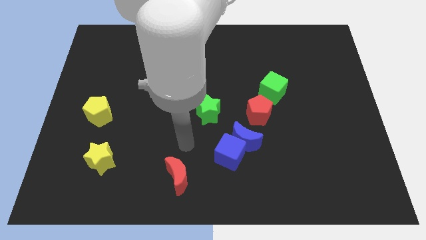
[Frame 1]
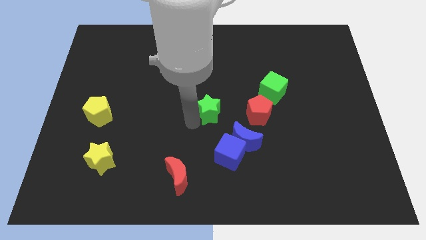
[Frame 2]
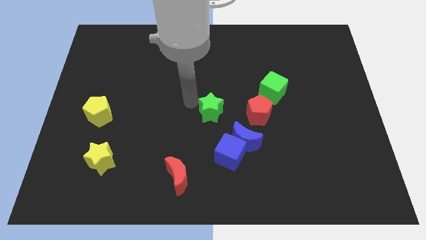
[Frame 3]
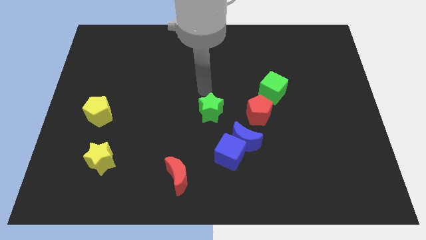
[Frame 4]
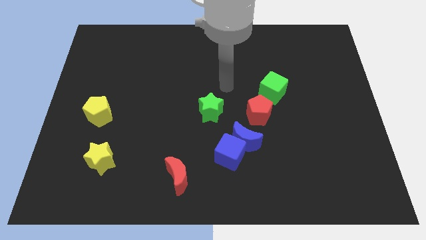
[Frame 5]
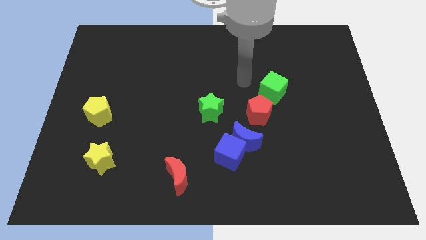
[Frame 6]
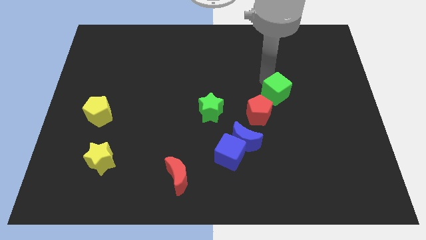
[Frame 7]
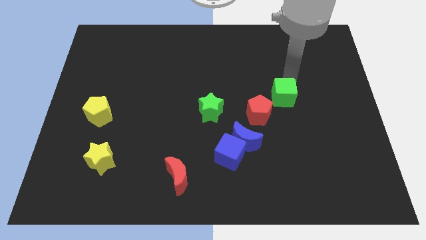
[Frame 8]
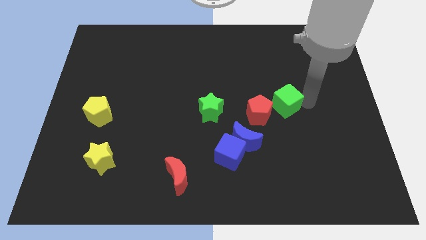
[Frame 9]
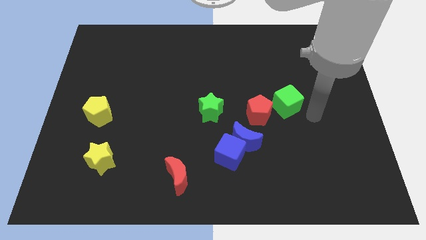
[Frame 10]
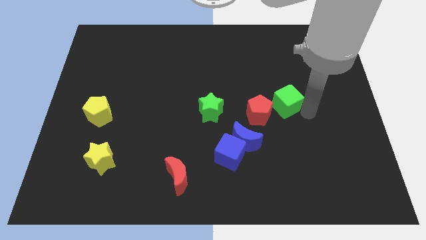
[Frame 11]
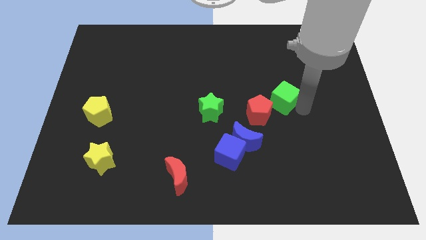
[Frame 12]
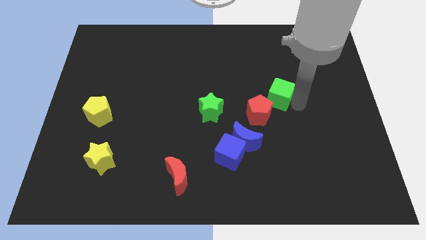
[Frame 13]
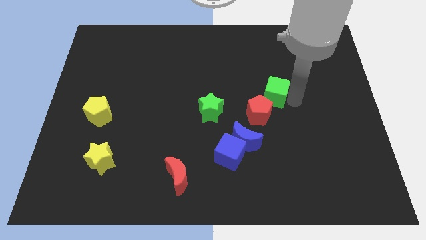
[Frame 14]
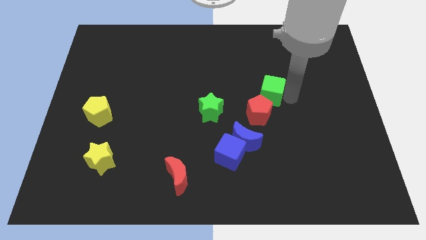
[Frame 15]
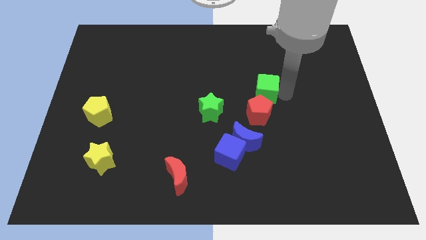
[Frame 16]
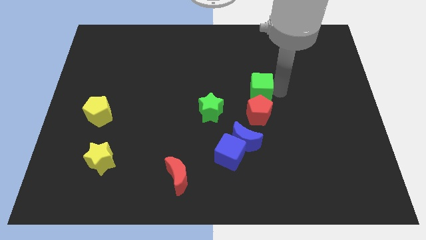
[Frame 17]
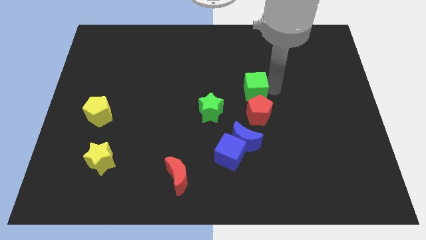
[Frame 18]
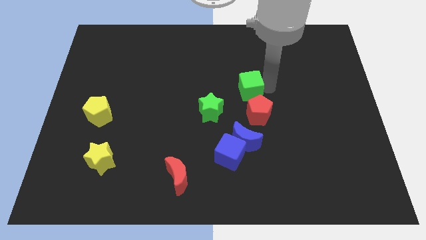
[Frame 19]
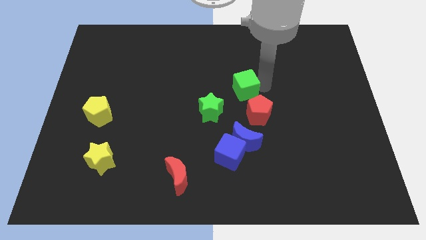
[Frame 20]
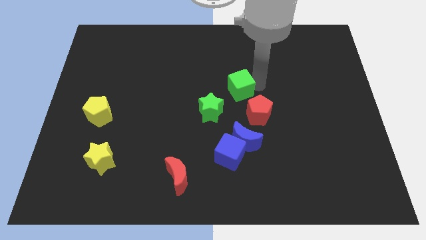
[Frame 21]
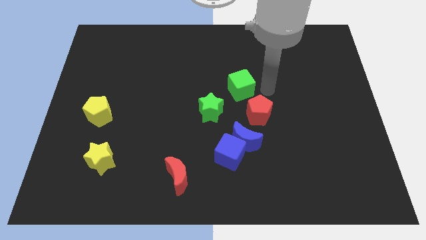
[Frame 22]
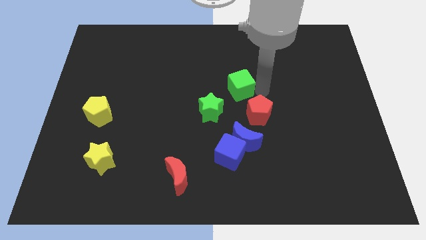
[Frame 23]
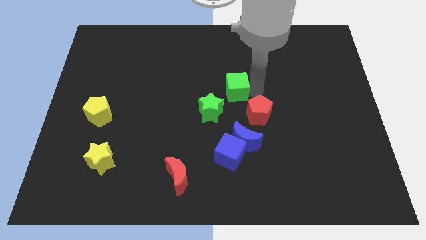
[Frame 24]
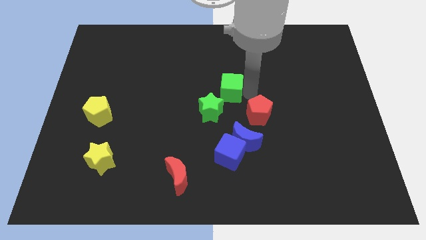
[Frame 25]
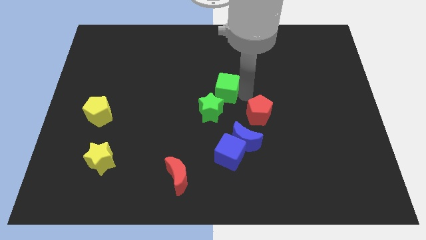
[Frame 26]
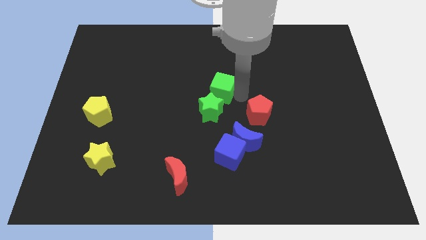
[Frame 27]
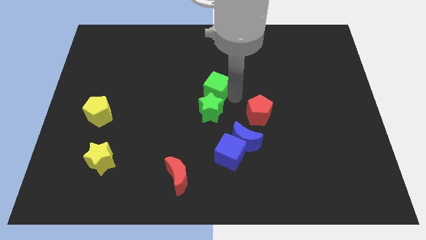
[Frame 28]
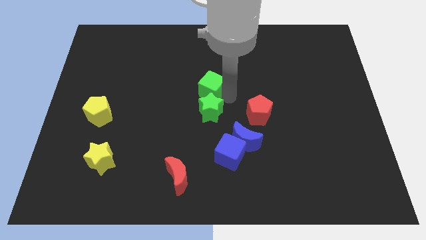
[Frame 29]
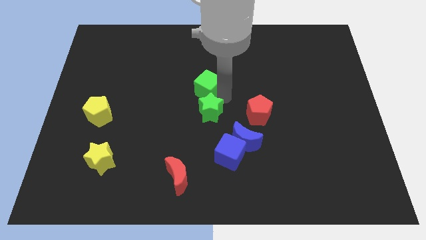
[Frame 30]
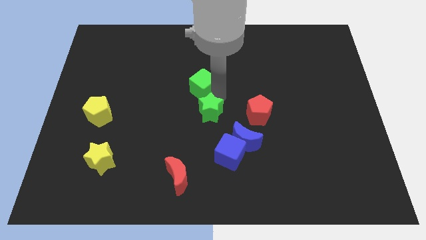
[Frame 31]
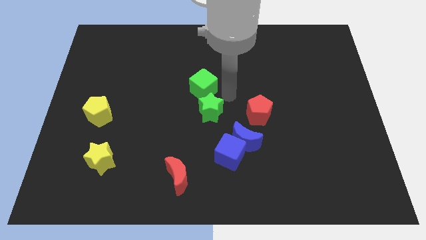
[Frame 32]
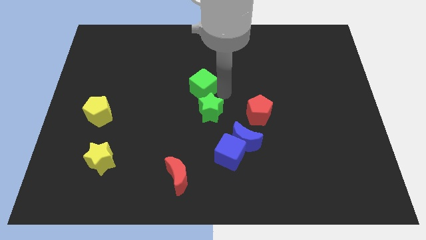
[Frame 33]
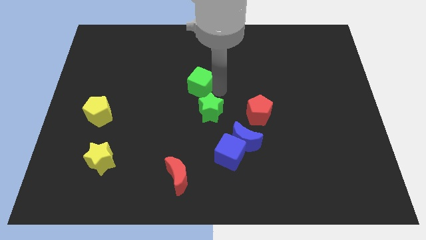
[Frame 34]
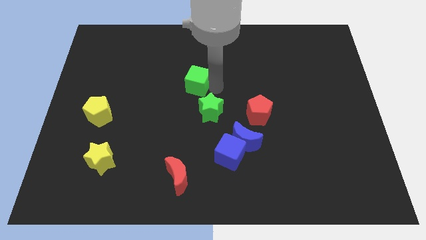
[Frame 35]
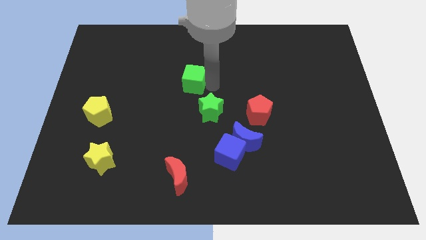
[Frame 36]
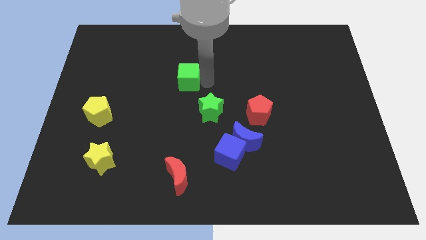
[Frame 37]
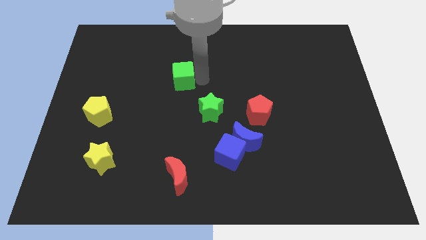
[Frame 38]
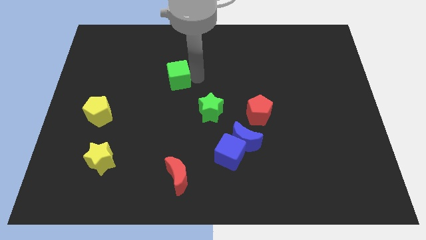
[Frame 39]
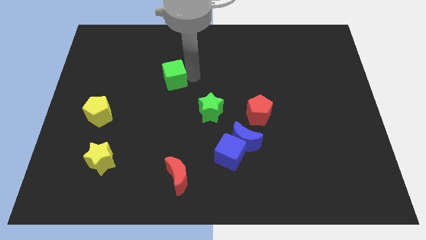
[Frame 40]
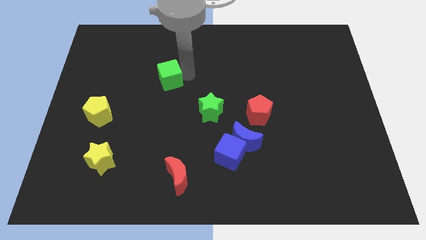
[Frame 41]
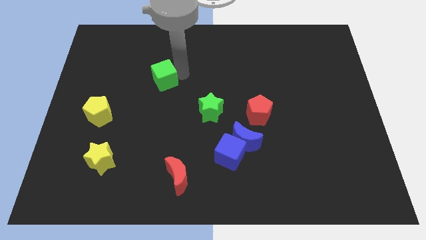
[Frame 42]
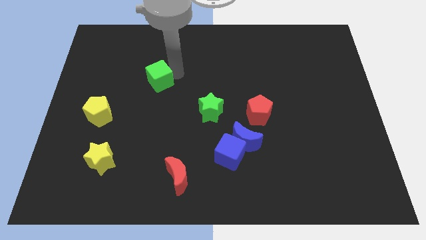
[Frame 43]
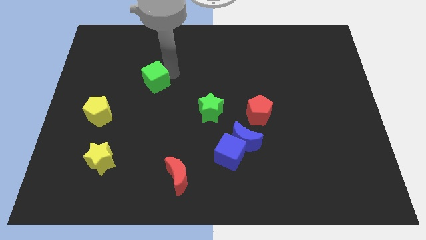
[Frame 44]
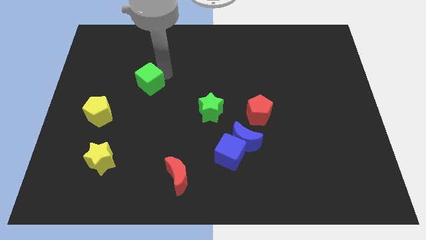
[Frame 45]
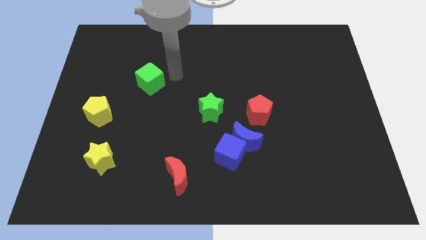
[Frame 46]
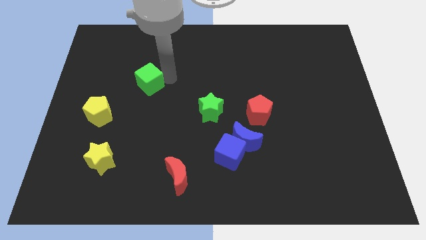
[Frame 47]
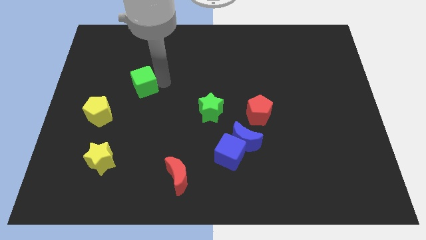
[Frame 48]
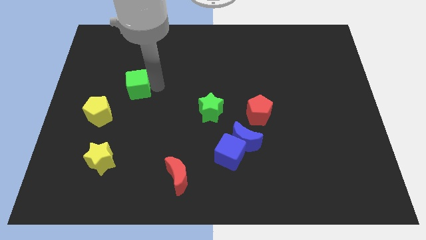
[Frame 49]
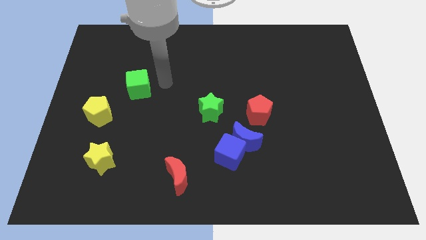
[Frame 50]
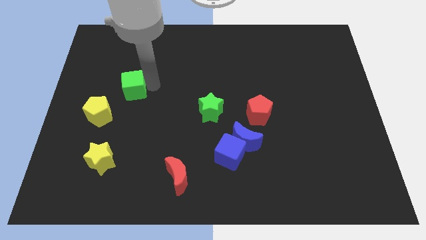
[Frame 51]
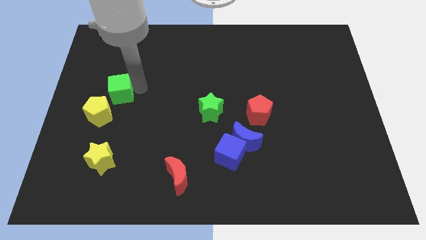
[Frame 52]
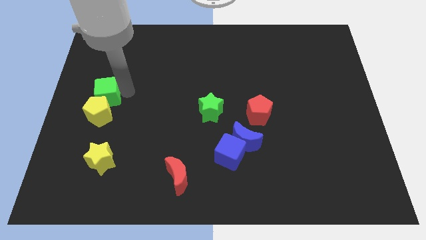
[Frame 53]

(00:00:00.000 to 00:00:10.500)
push the green cube to the left side of the board

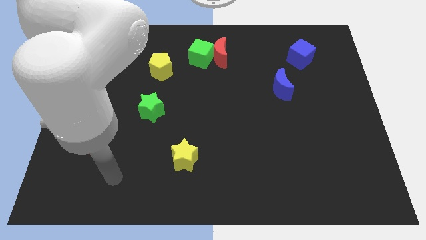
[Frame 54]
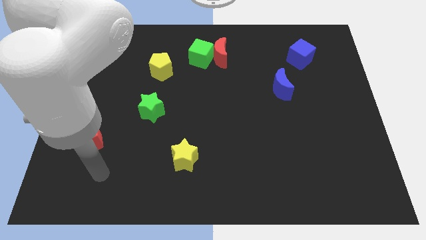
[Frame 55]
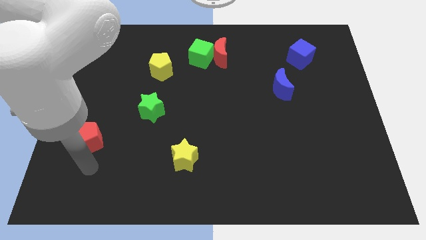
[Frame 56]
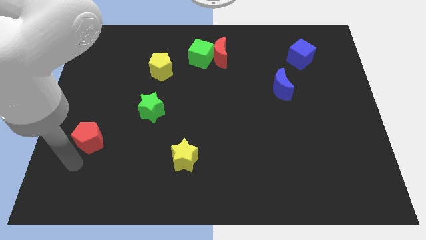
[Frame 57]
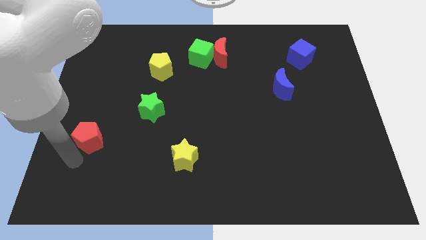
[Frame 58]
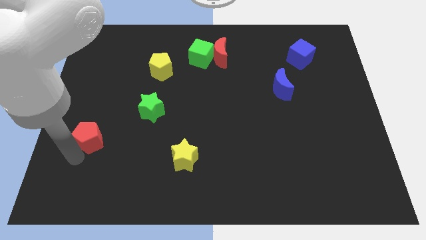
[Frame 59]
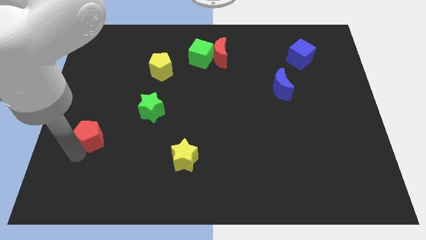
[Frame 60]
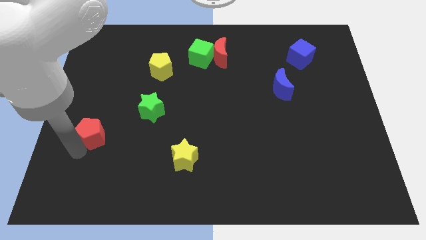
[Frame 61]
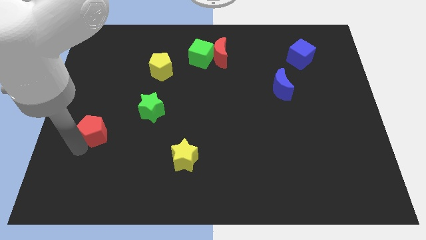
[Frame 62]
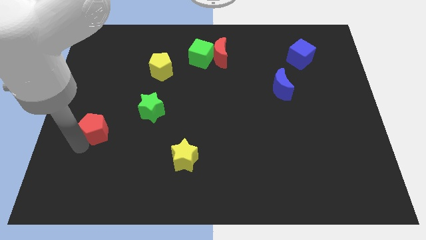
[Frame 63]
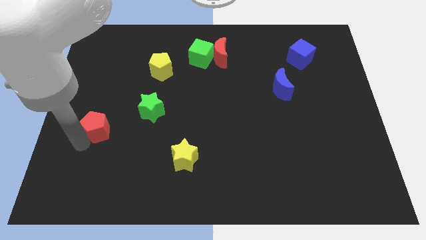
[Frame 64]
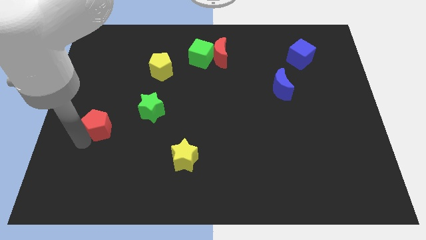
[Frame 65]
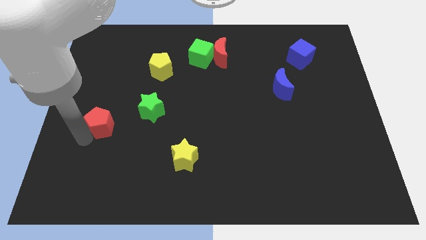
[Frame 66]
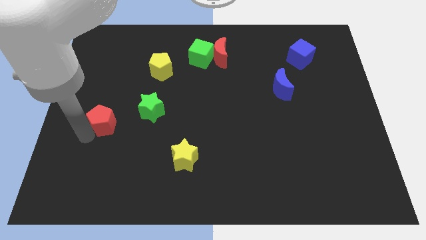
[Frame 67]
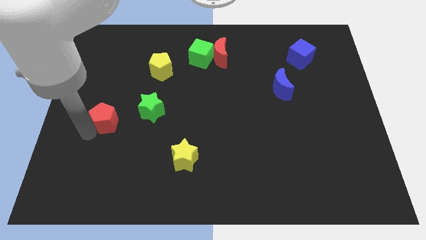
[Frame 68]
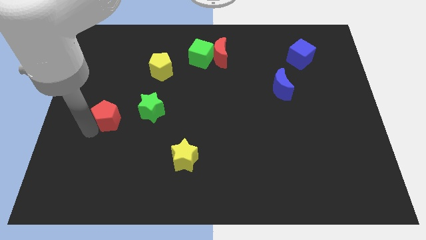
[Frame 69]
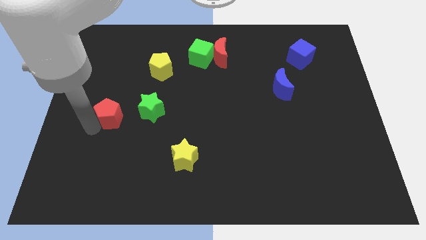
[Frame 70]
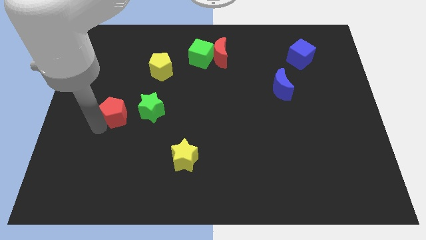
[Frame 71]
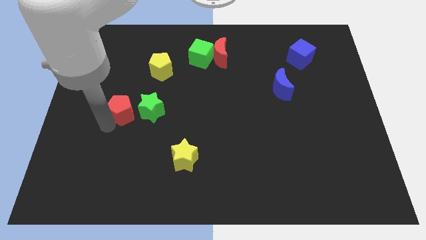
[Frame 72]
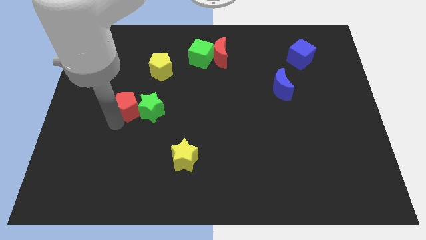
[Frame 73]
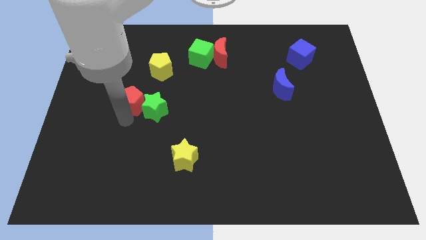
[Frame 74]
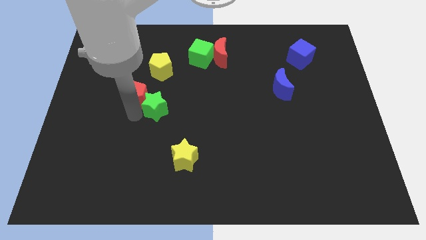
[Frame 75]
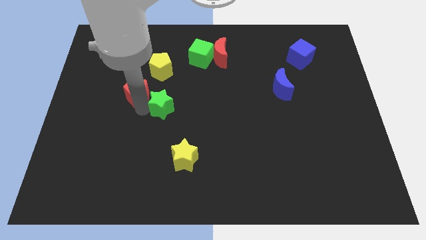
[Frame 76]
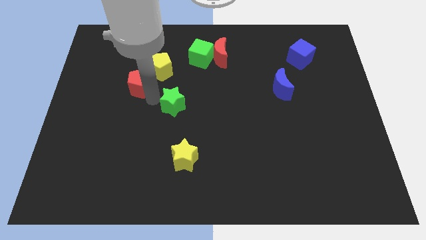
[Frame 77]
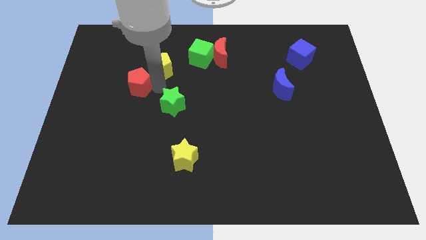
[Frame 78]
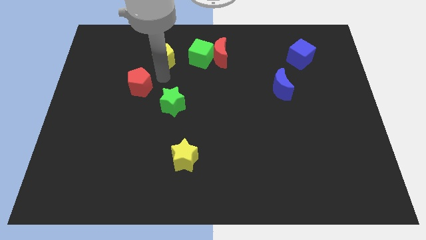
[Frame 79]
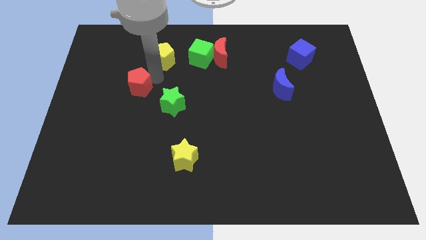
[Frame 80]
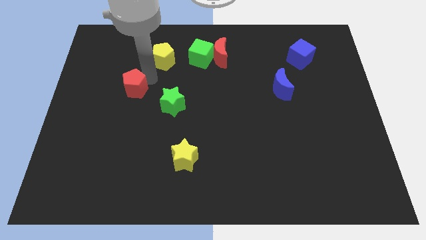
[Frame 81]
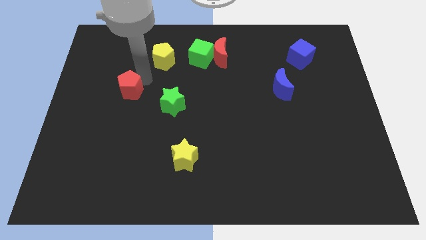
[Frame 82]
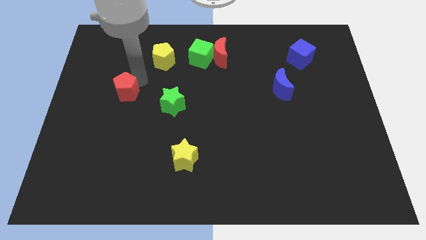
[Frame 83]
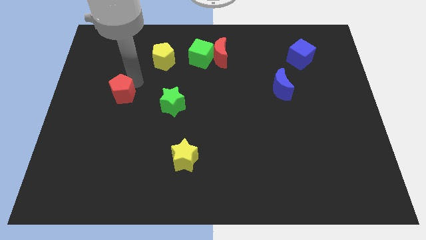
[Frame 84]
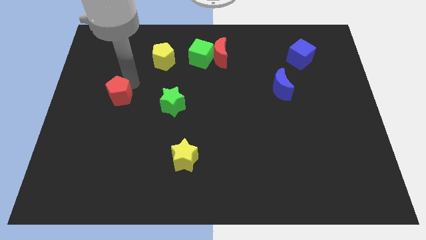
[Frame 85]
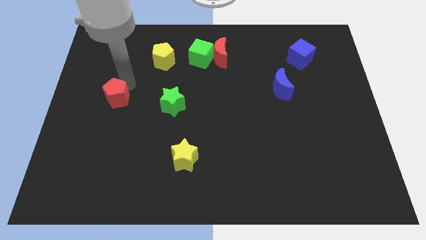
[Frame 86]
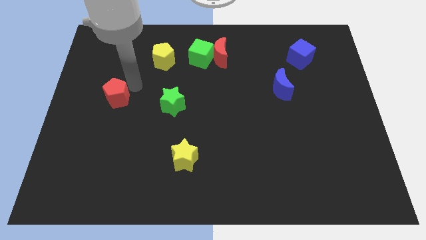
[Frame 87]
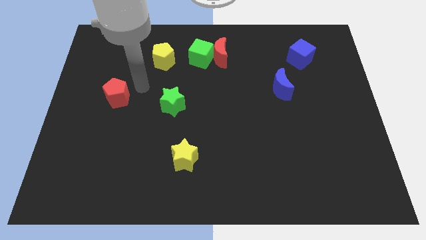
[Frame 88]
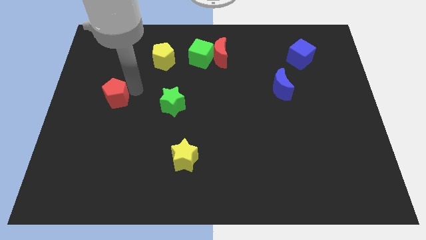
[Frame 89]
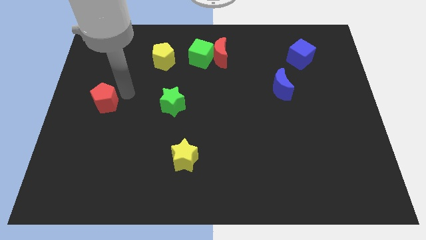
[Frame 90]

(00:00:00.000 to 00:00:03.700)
move the red pentagon to the left side of the board
